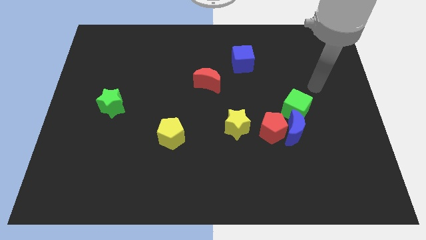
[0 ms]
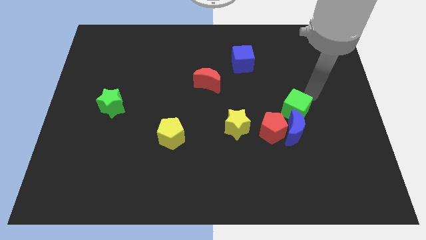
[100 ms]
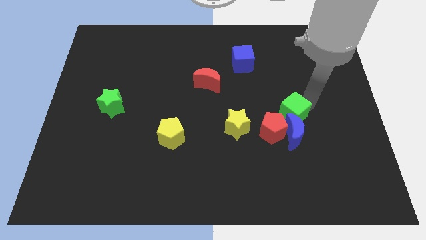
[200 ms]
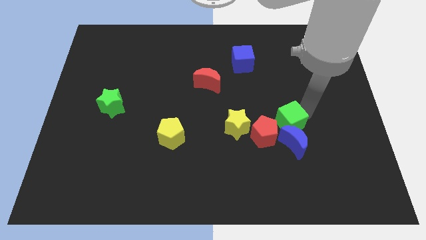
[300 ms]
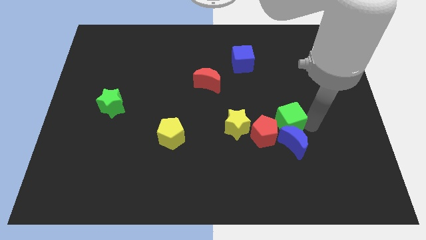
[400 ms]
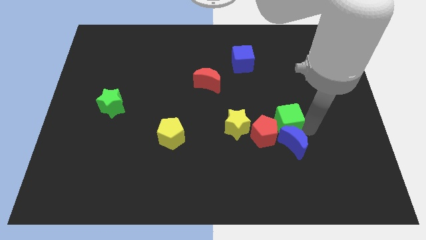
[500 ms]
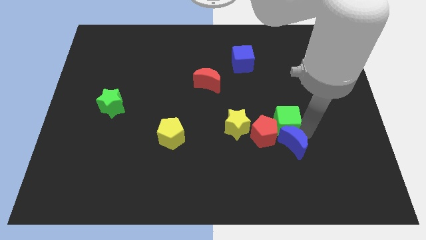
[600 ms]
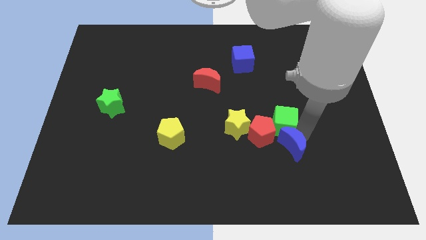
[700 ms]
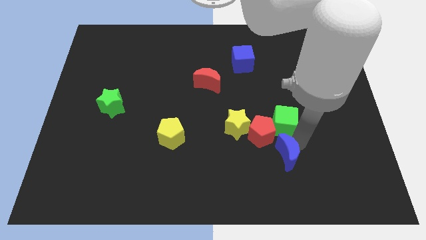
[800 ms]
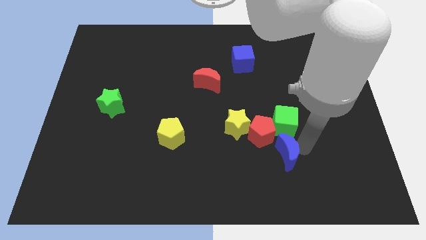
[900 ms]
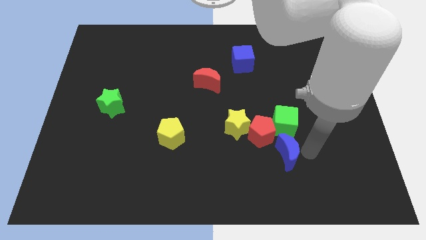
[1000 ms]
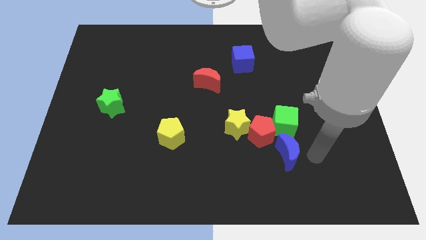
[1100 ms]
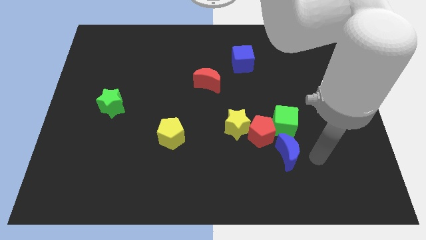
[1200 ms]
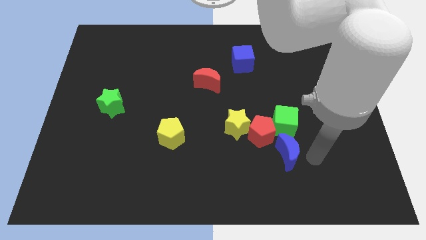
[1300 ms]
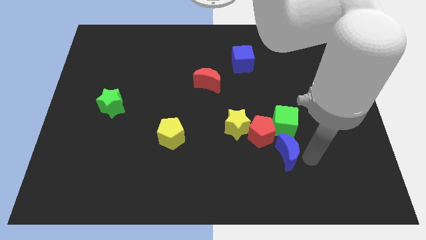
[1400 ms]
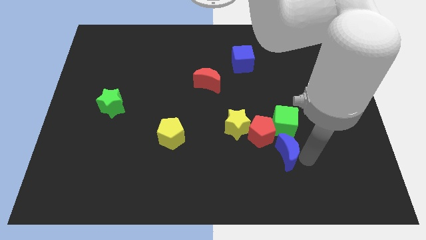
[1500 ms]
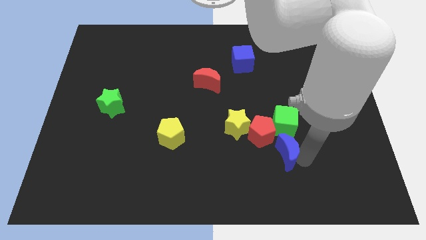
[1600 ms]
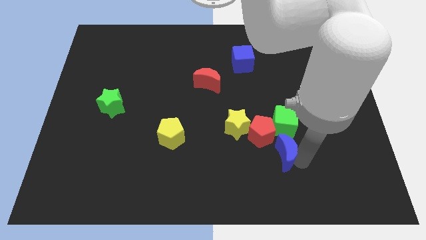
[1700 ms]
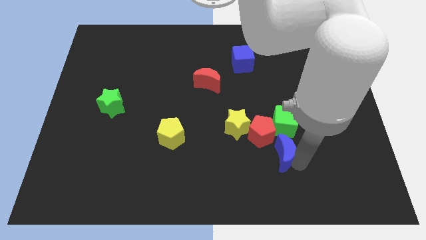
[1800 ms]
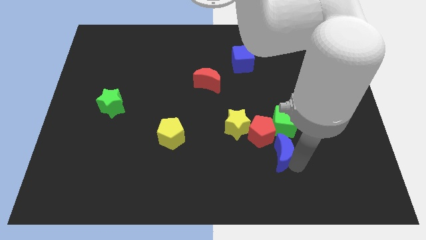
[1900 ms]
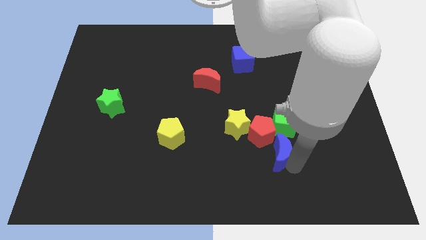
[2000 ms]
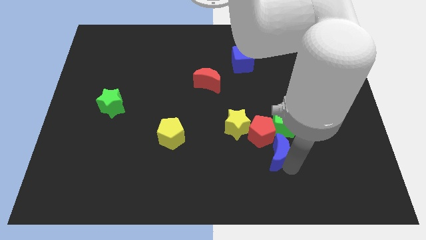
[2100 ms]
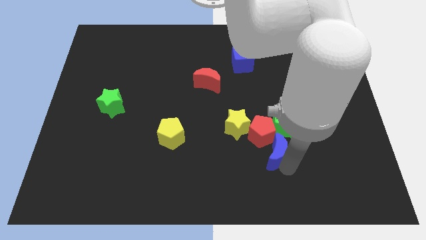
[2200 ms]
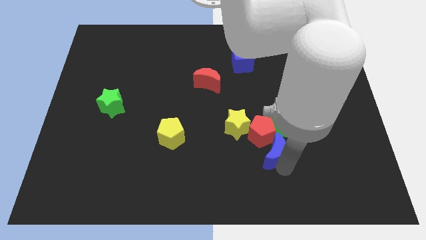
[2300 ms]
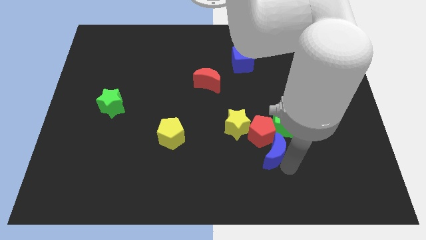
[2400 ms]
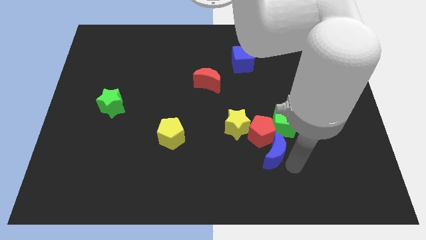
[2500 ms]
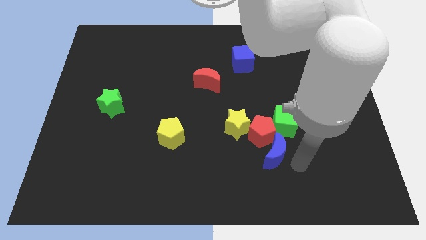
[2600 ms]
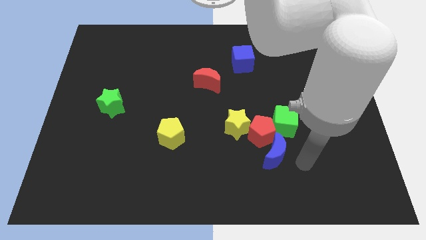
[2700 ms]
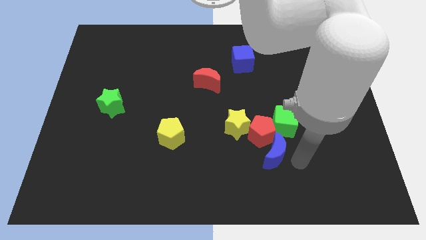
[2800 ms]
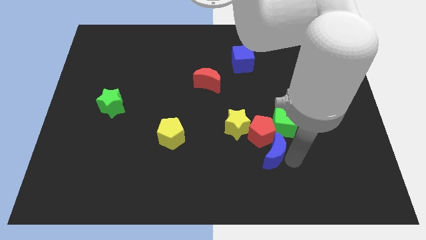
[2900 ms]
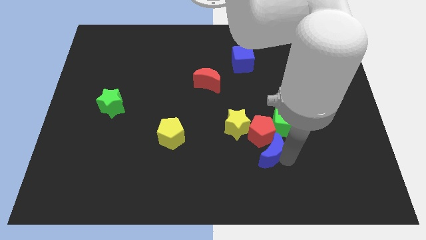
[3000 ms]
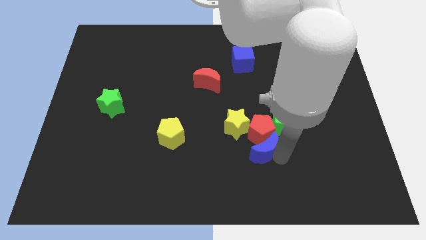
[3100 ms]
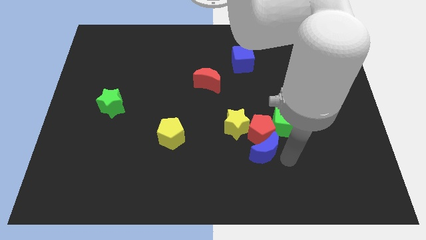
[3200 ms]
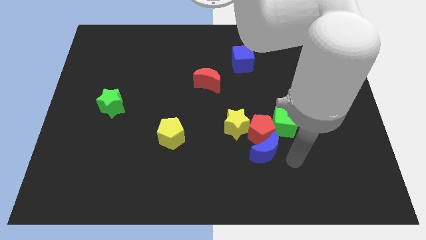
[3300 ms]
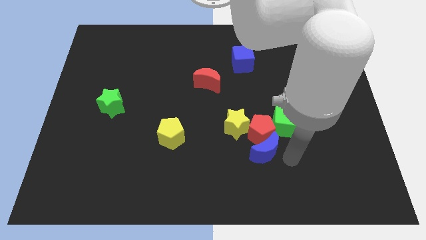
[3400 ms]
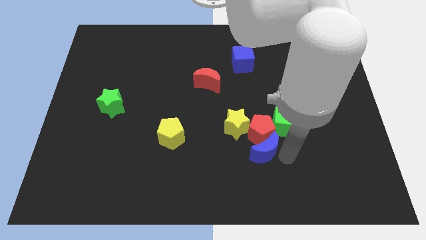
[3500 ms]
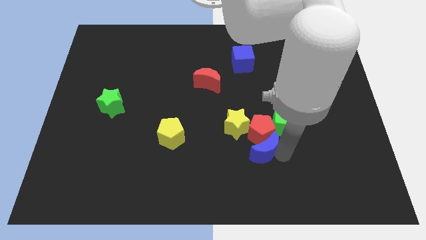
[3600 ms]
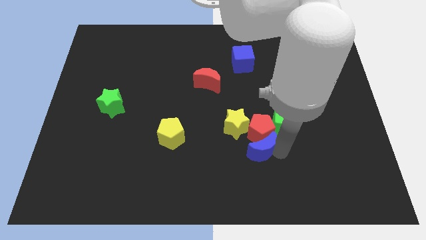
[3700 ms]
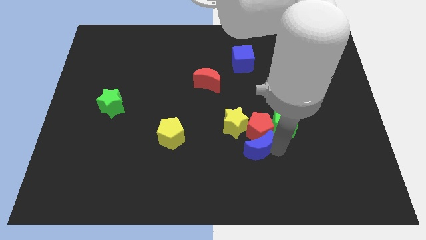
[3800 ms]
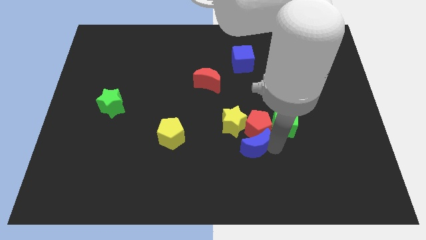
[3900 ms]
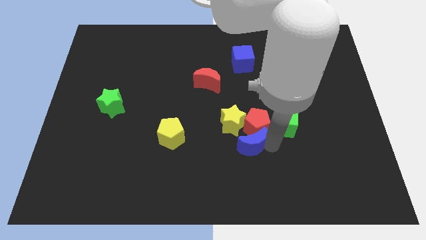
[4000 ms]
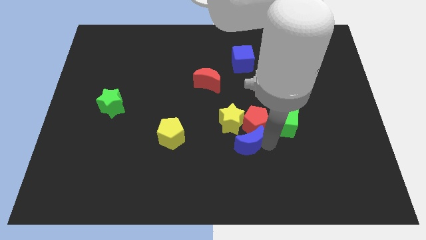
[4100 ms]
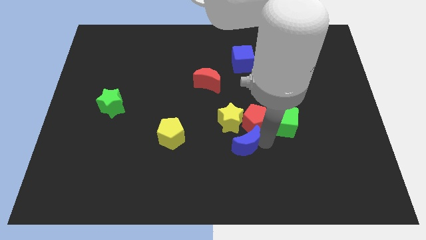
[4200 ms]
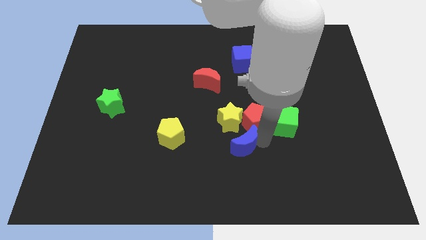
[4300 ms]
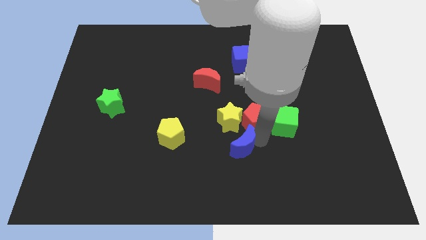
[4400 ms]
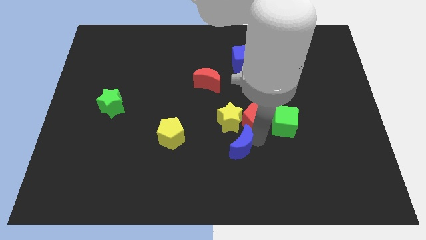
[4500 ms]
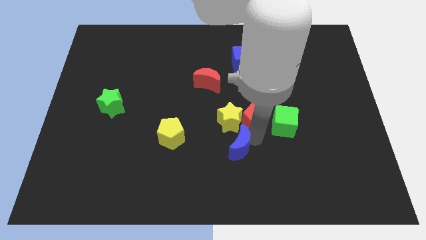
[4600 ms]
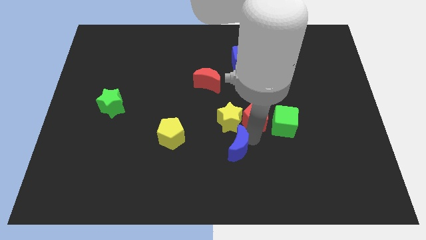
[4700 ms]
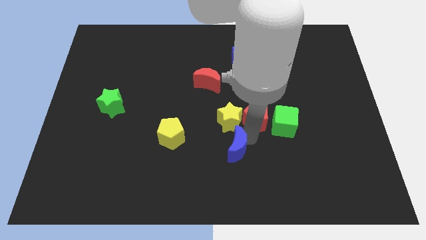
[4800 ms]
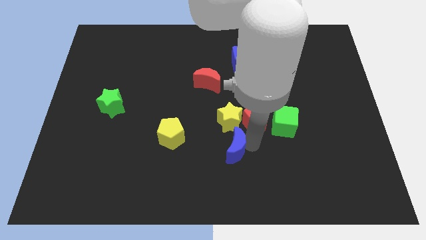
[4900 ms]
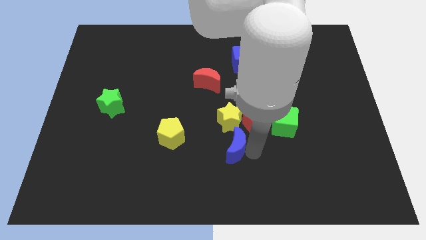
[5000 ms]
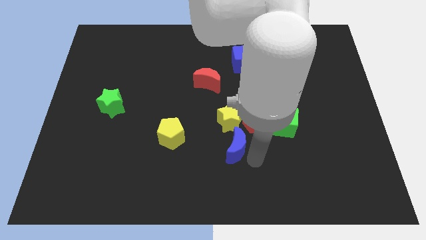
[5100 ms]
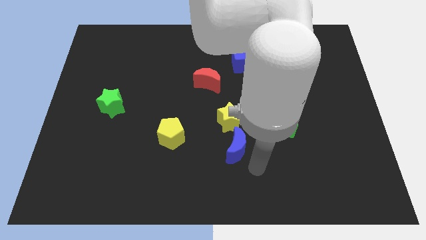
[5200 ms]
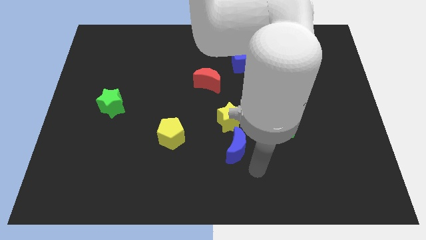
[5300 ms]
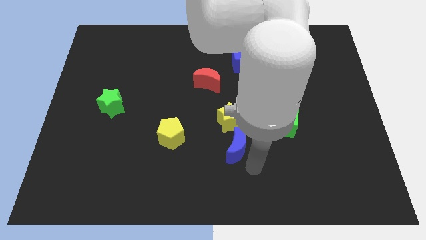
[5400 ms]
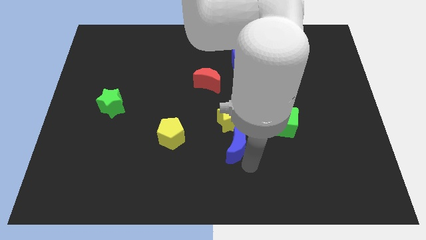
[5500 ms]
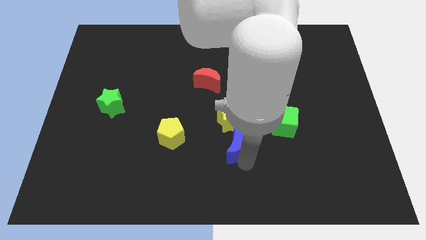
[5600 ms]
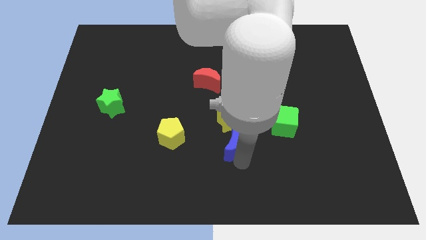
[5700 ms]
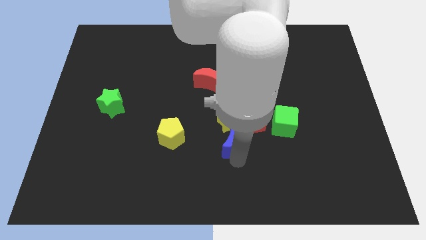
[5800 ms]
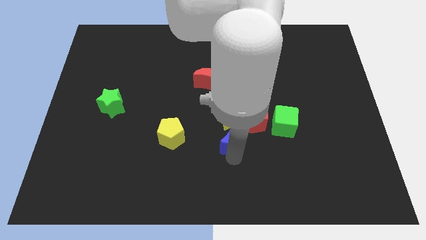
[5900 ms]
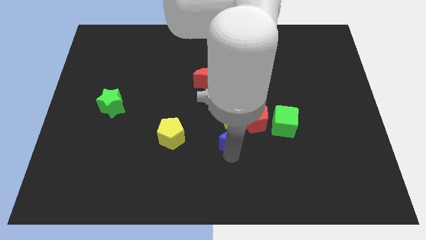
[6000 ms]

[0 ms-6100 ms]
move the blue moon left of the red pentagon

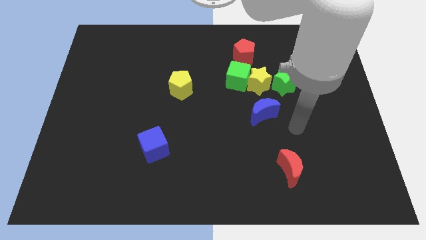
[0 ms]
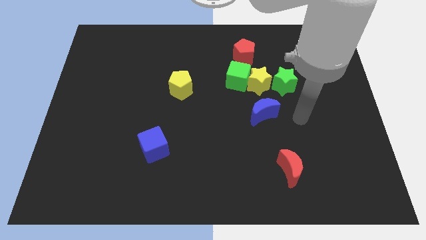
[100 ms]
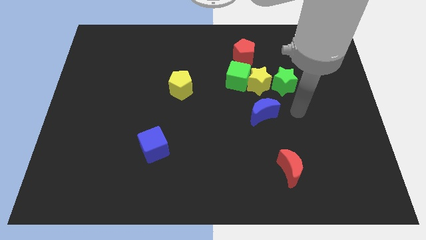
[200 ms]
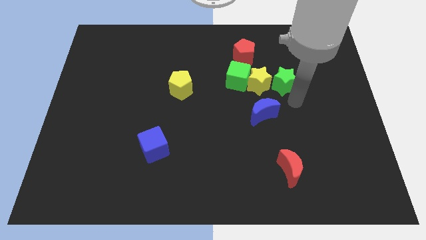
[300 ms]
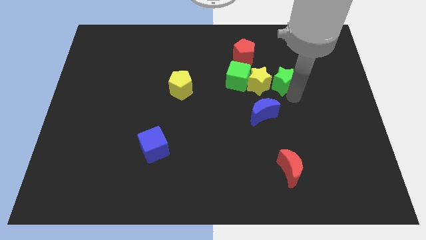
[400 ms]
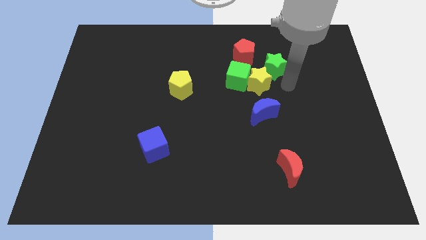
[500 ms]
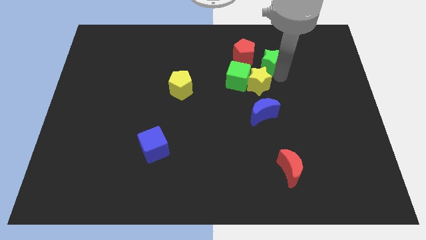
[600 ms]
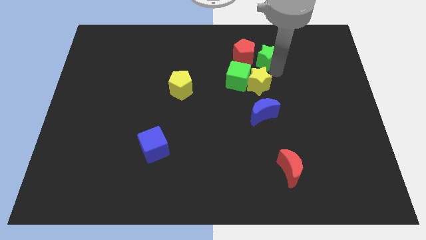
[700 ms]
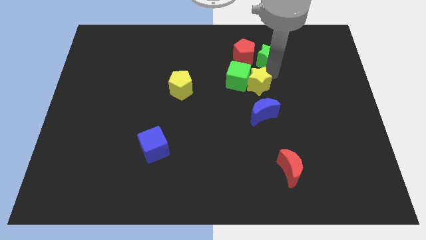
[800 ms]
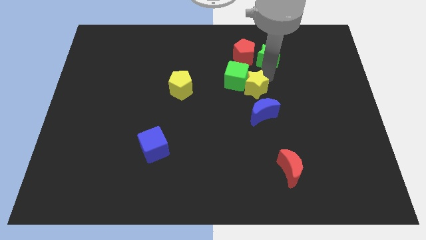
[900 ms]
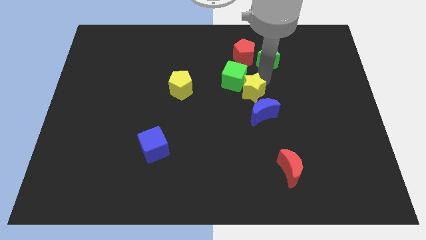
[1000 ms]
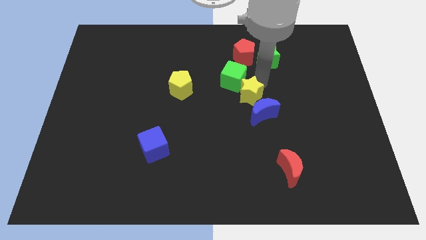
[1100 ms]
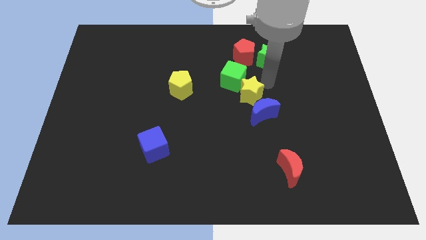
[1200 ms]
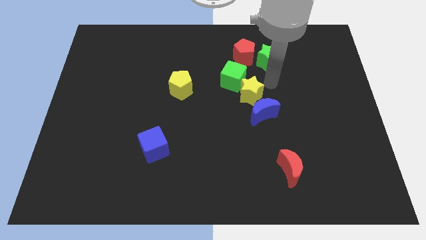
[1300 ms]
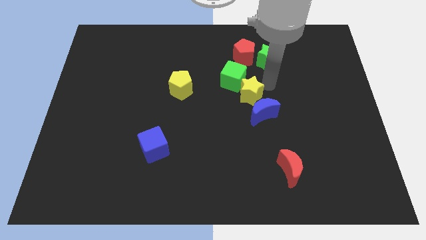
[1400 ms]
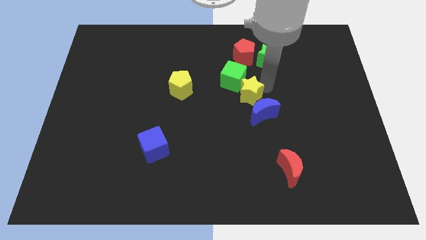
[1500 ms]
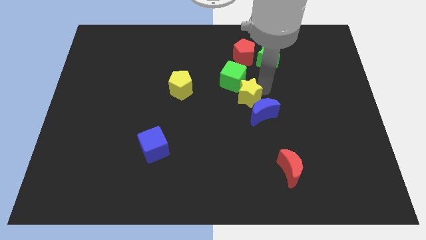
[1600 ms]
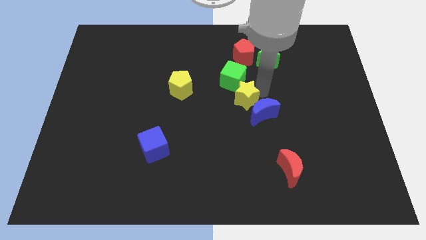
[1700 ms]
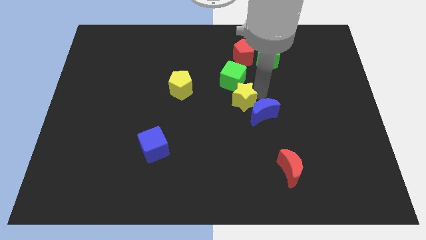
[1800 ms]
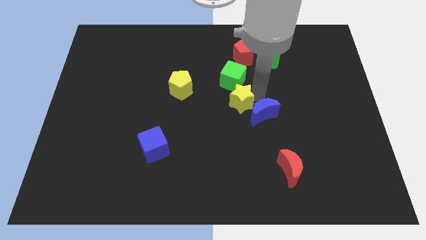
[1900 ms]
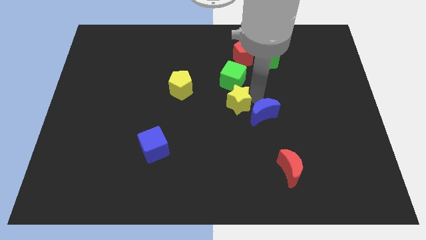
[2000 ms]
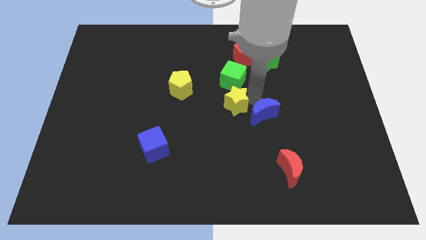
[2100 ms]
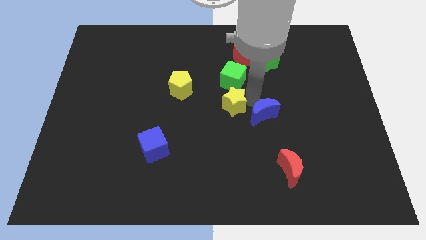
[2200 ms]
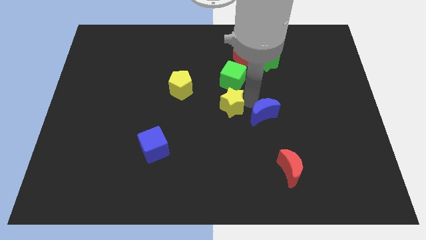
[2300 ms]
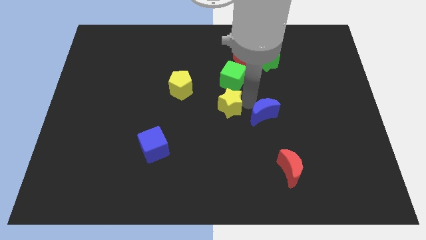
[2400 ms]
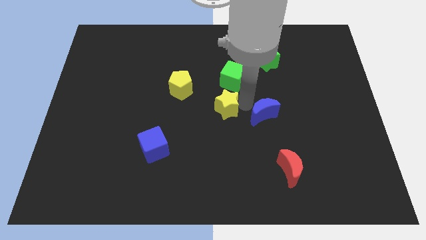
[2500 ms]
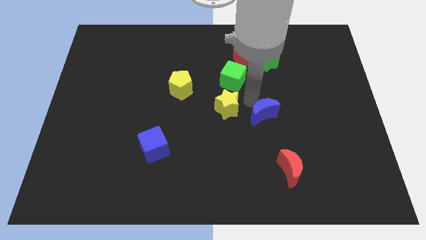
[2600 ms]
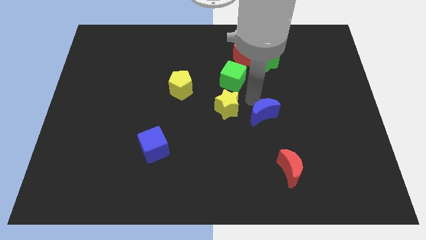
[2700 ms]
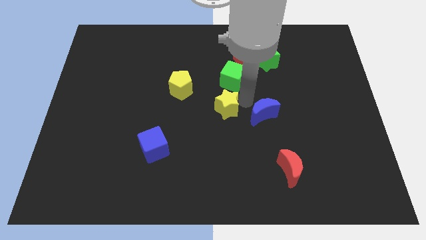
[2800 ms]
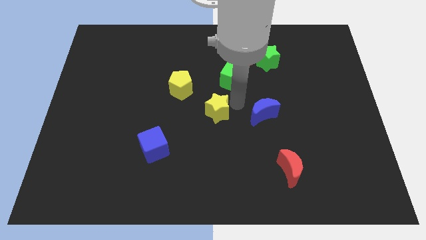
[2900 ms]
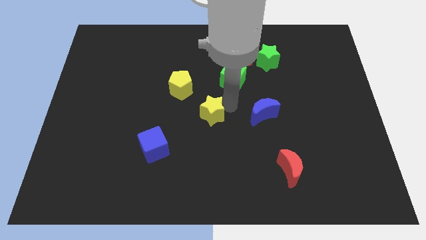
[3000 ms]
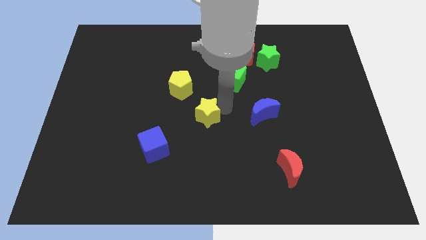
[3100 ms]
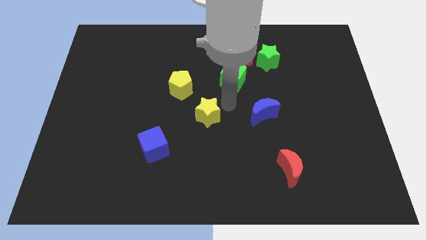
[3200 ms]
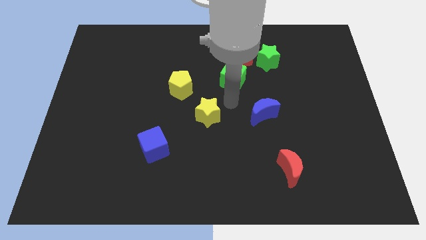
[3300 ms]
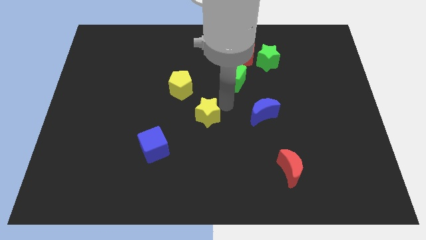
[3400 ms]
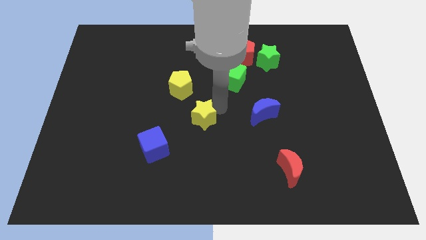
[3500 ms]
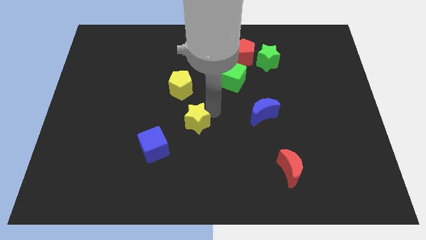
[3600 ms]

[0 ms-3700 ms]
slide the yellow star to the top right of the blue cube
